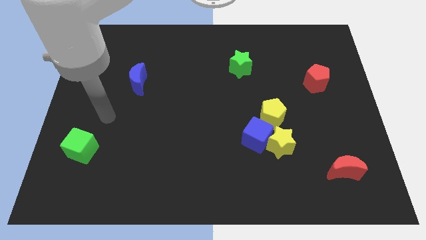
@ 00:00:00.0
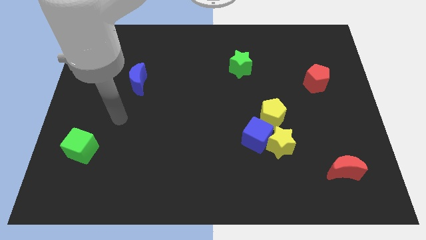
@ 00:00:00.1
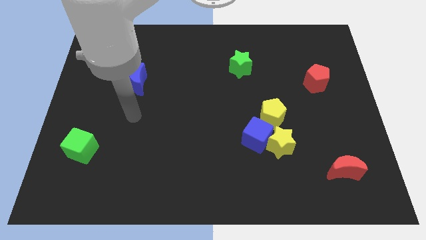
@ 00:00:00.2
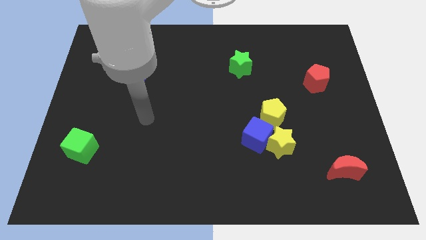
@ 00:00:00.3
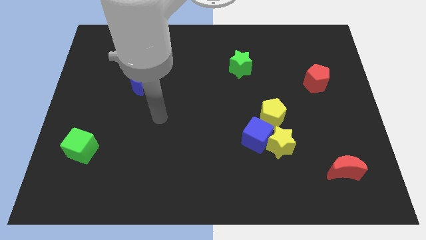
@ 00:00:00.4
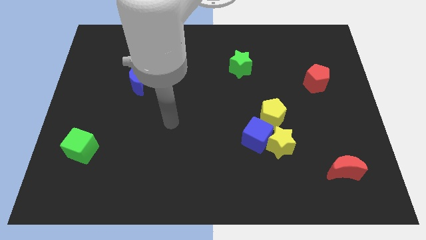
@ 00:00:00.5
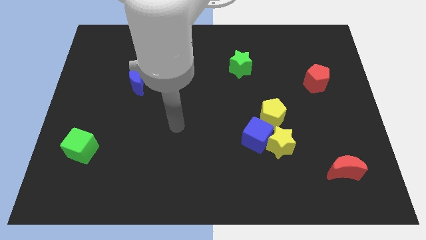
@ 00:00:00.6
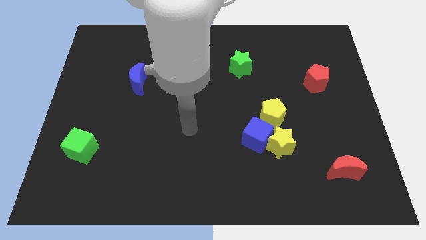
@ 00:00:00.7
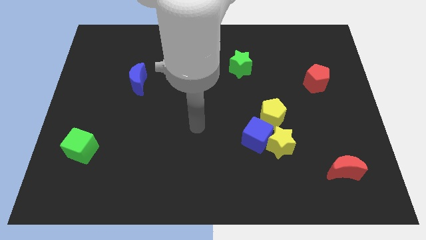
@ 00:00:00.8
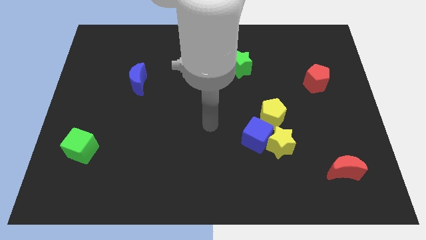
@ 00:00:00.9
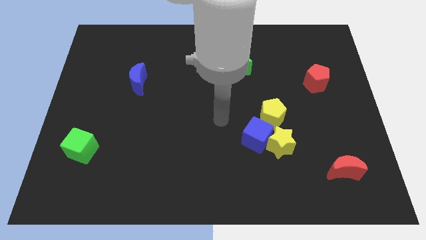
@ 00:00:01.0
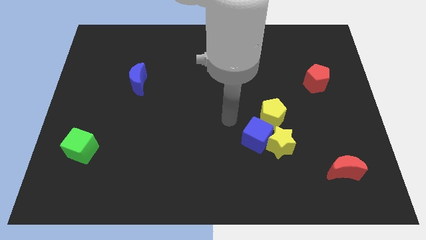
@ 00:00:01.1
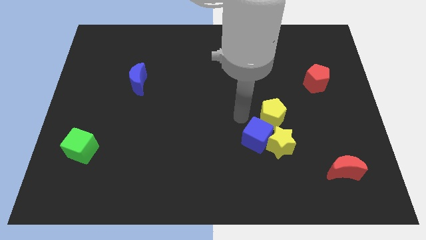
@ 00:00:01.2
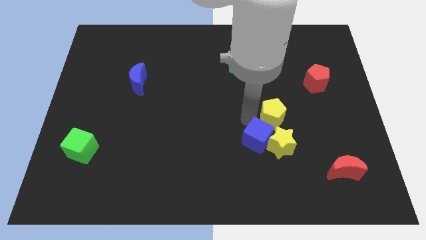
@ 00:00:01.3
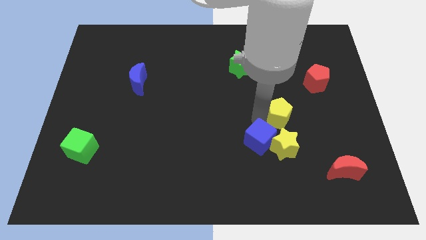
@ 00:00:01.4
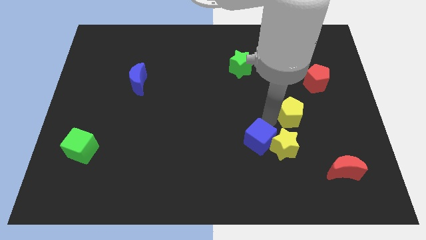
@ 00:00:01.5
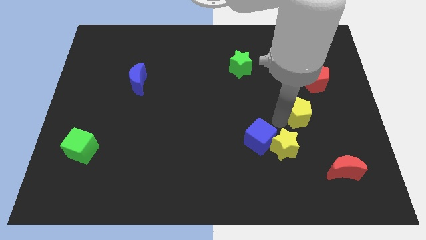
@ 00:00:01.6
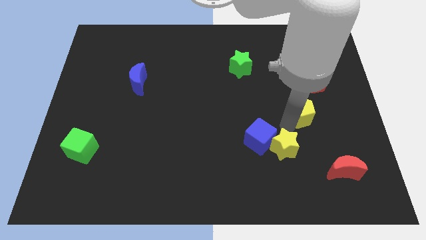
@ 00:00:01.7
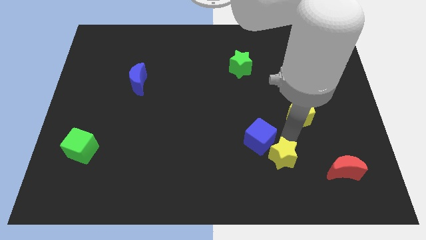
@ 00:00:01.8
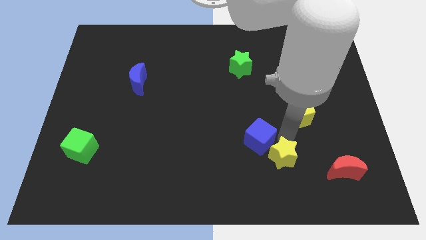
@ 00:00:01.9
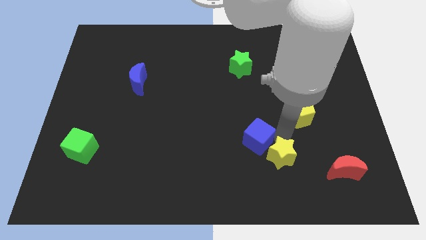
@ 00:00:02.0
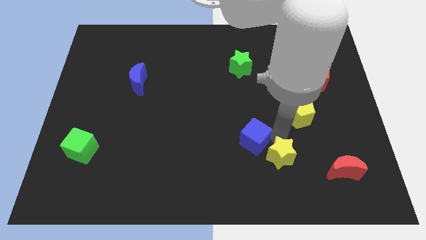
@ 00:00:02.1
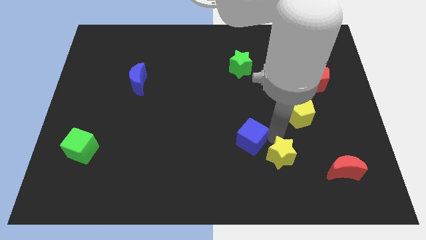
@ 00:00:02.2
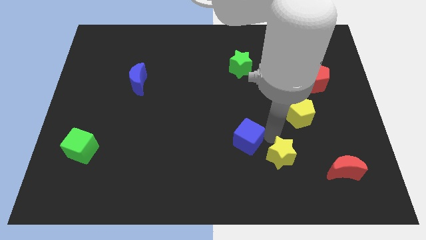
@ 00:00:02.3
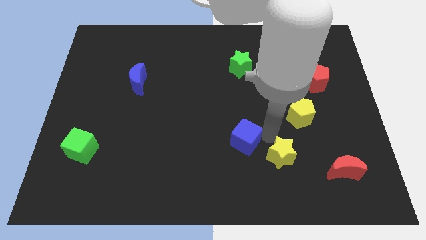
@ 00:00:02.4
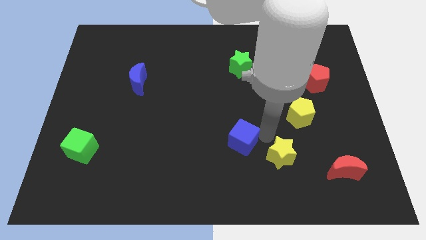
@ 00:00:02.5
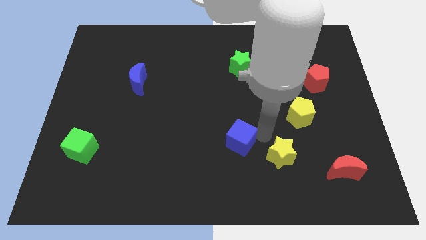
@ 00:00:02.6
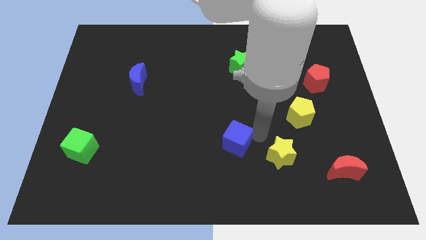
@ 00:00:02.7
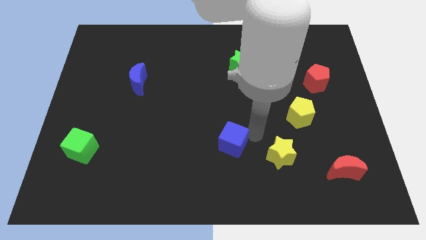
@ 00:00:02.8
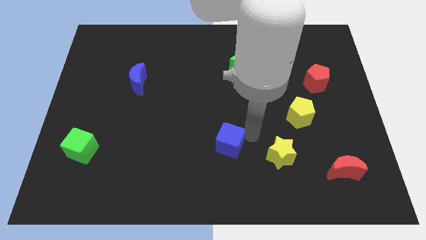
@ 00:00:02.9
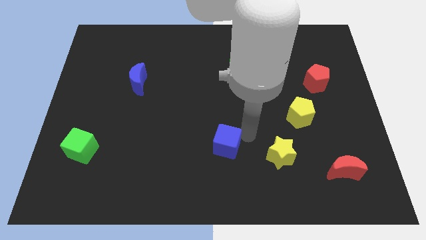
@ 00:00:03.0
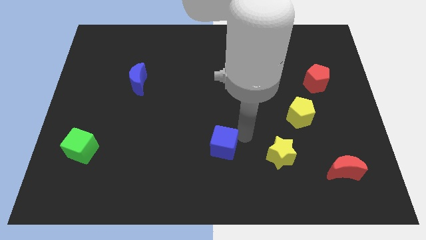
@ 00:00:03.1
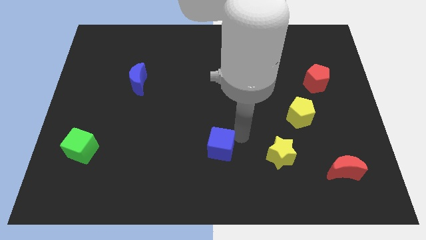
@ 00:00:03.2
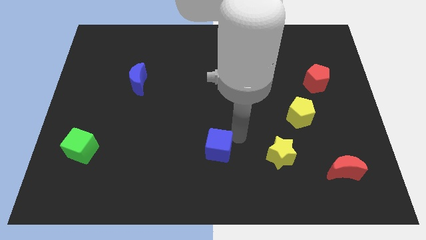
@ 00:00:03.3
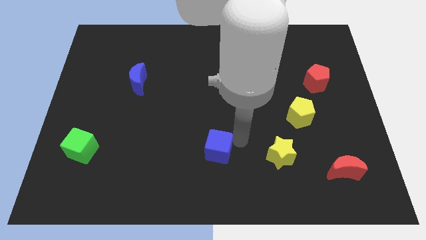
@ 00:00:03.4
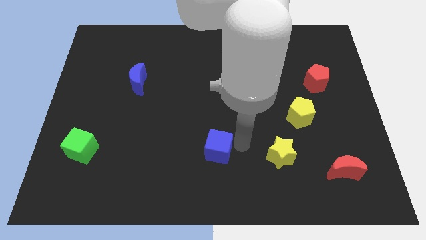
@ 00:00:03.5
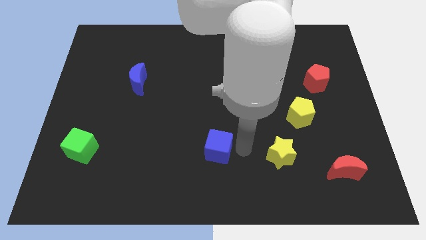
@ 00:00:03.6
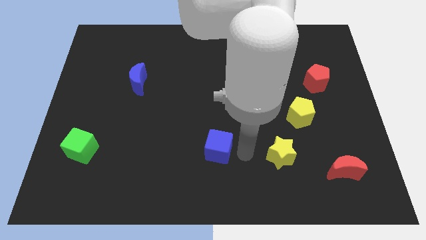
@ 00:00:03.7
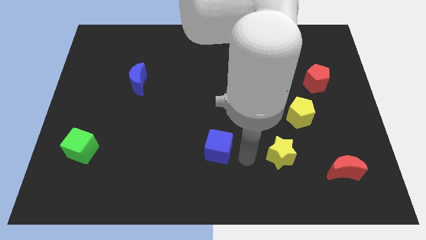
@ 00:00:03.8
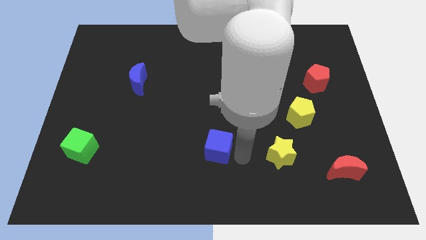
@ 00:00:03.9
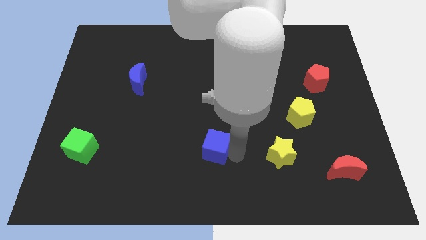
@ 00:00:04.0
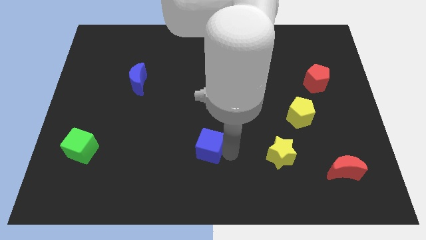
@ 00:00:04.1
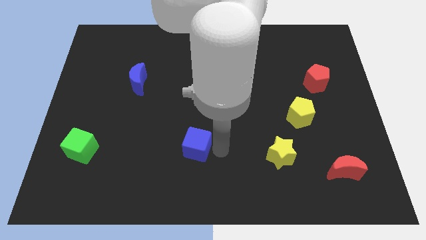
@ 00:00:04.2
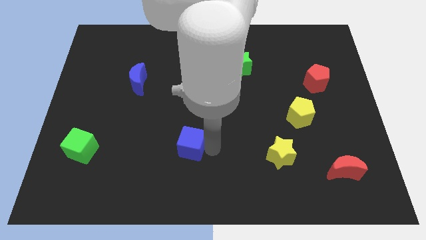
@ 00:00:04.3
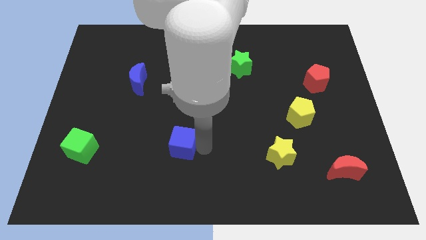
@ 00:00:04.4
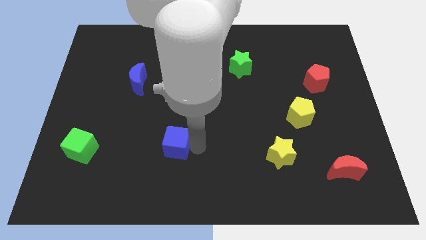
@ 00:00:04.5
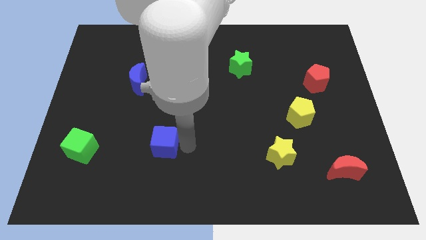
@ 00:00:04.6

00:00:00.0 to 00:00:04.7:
slide the blue cube to the left

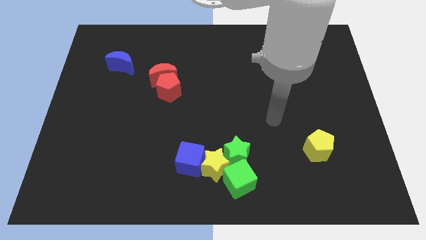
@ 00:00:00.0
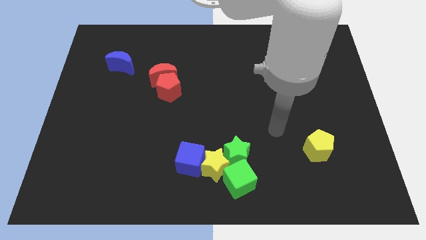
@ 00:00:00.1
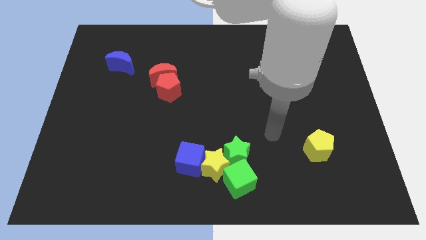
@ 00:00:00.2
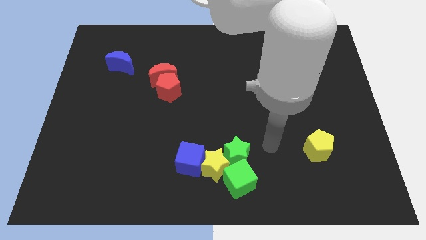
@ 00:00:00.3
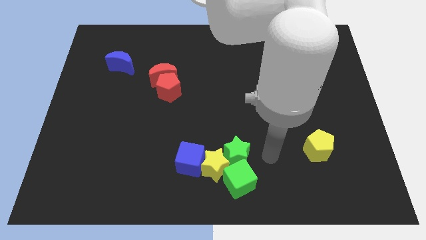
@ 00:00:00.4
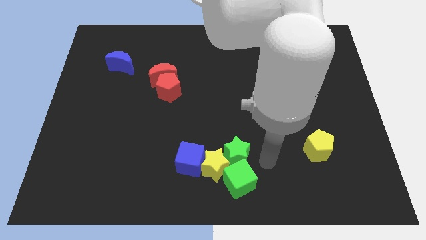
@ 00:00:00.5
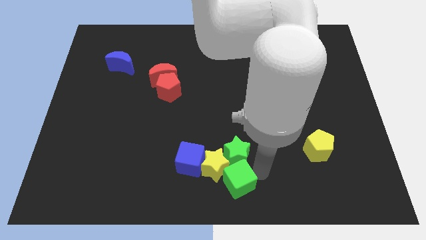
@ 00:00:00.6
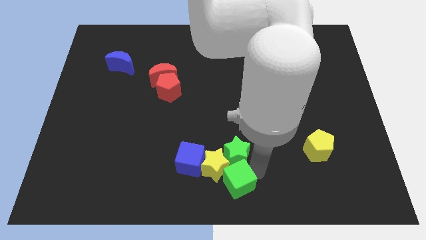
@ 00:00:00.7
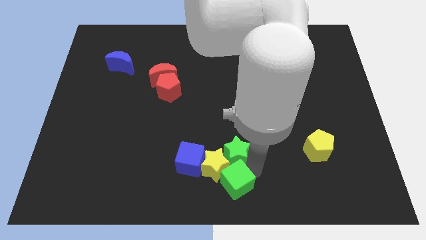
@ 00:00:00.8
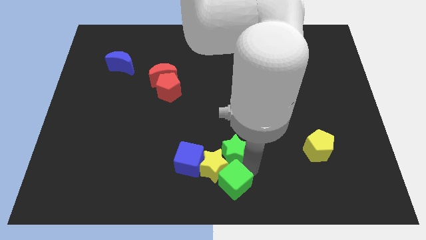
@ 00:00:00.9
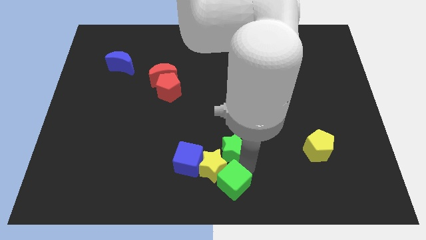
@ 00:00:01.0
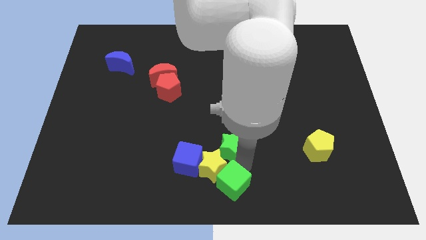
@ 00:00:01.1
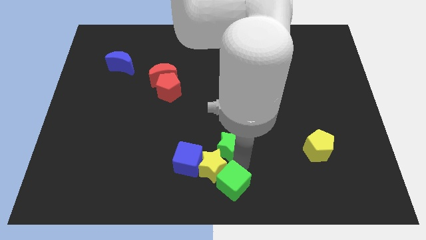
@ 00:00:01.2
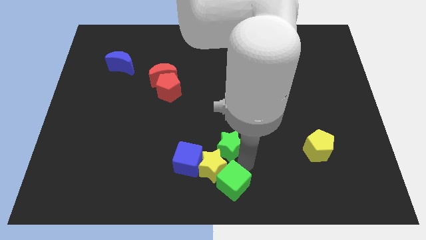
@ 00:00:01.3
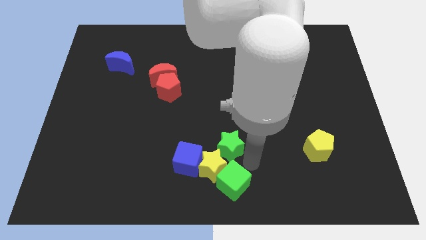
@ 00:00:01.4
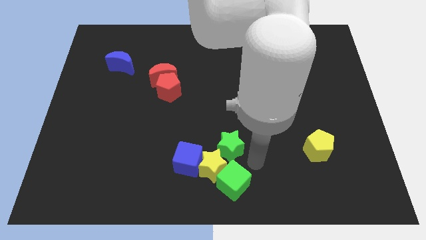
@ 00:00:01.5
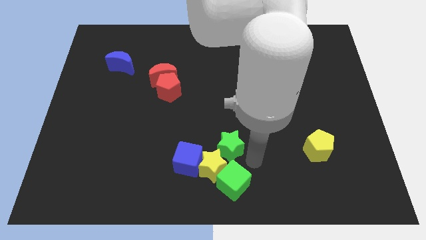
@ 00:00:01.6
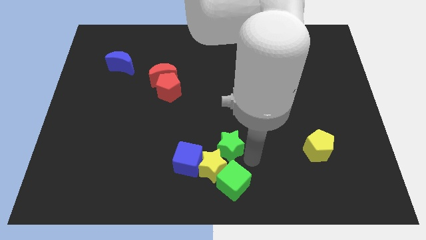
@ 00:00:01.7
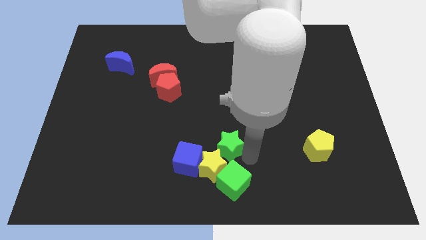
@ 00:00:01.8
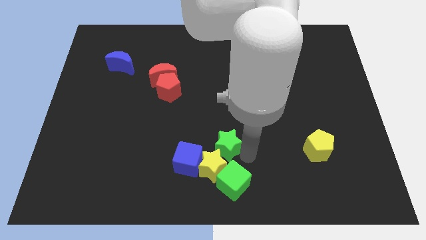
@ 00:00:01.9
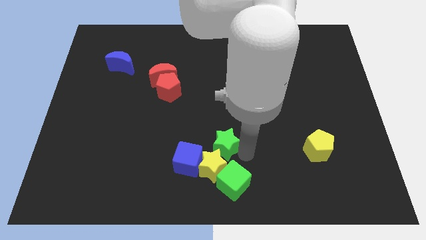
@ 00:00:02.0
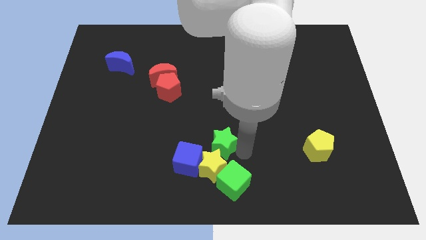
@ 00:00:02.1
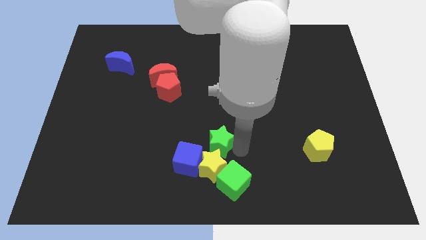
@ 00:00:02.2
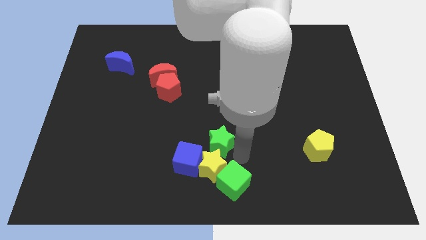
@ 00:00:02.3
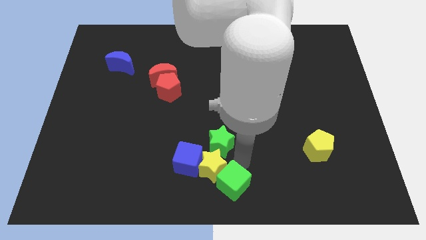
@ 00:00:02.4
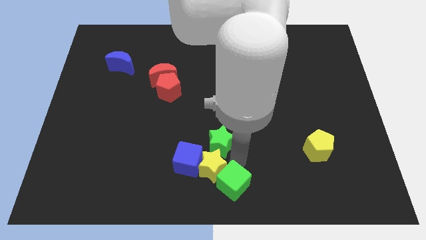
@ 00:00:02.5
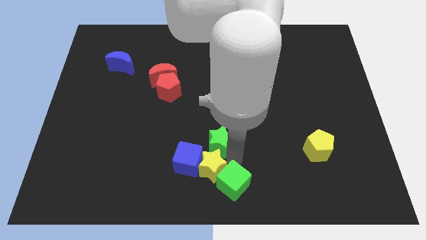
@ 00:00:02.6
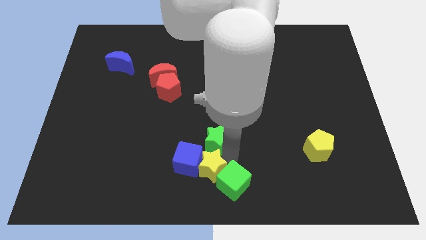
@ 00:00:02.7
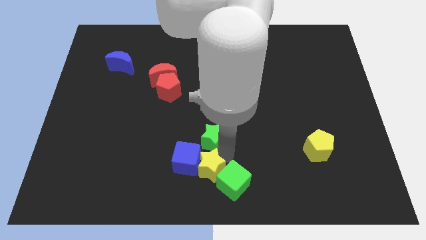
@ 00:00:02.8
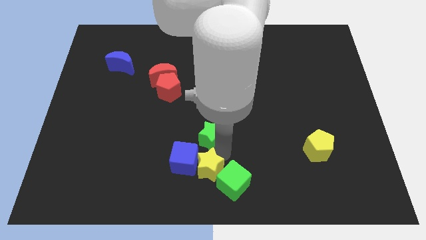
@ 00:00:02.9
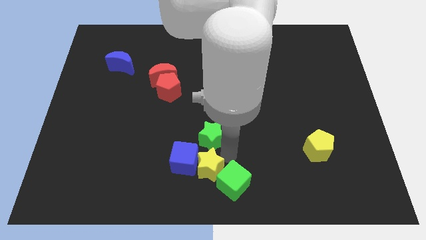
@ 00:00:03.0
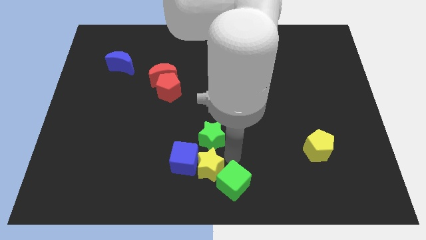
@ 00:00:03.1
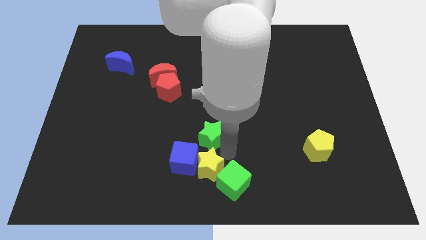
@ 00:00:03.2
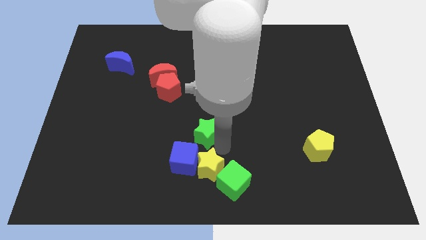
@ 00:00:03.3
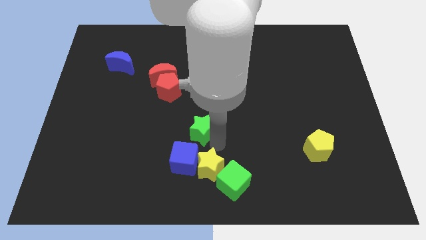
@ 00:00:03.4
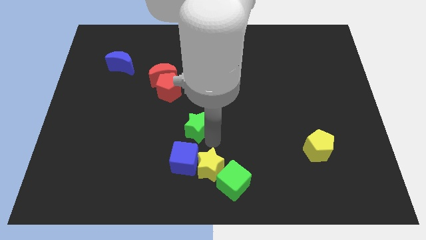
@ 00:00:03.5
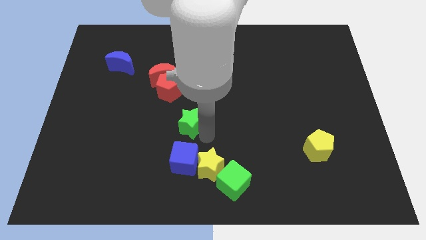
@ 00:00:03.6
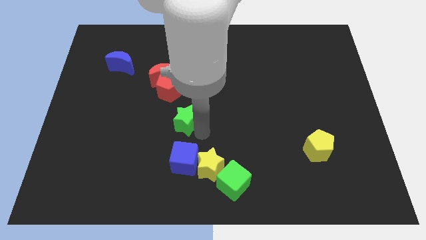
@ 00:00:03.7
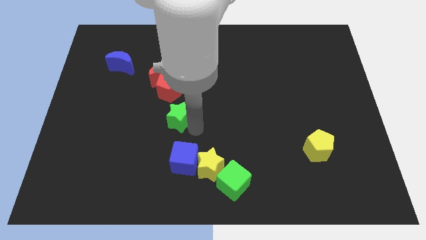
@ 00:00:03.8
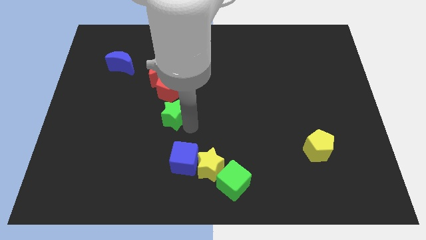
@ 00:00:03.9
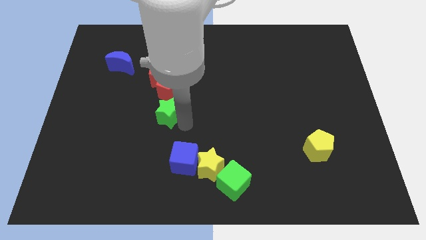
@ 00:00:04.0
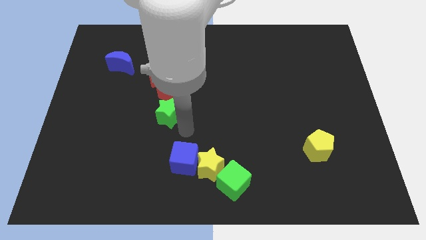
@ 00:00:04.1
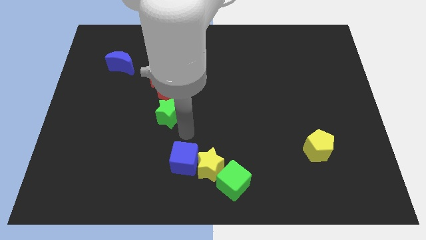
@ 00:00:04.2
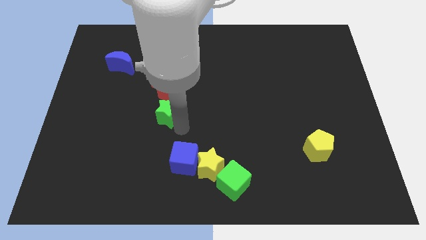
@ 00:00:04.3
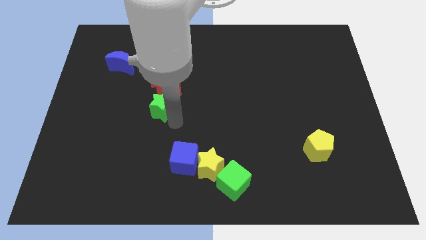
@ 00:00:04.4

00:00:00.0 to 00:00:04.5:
slide the green star upwards and to the left diagonally
